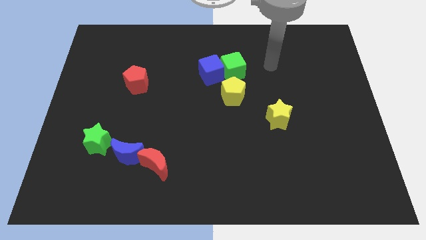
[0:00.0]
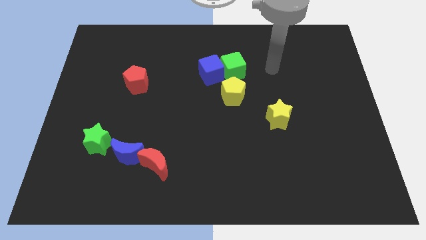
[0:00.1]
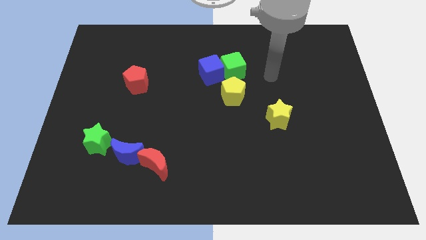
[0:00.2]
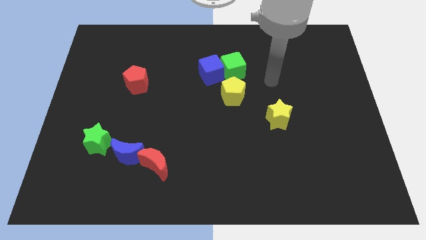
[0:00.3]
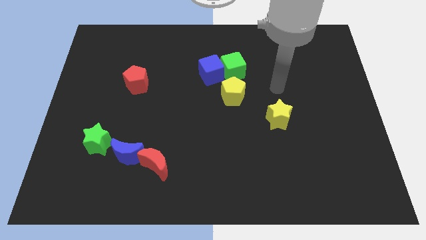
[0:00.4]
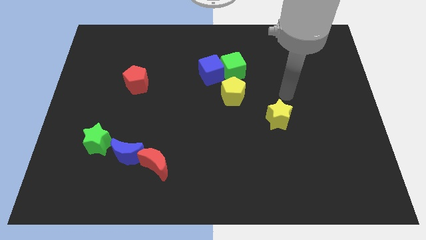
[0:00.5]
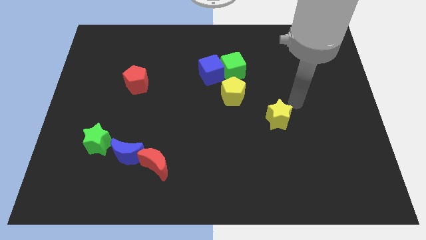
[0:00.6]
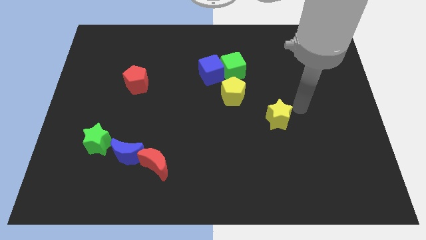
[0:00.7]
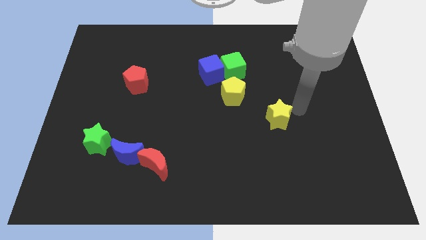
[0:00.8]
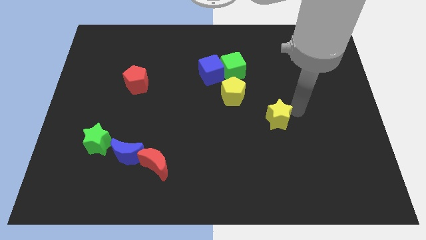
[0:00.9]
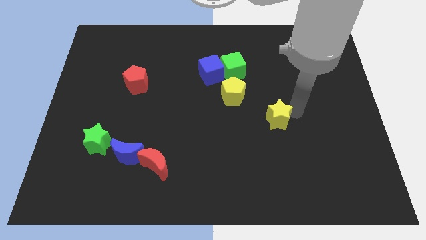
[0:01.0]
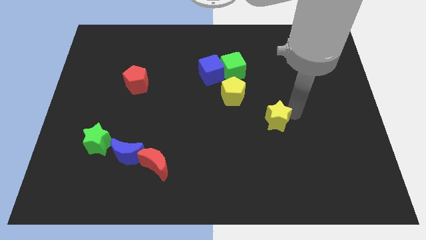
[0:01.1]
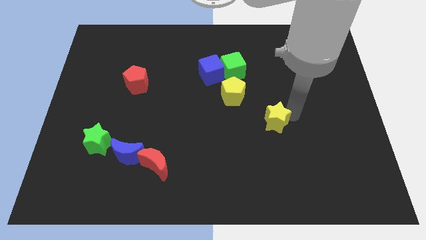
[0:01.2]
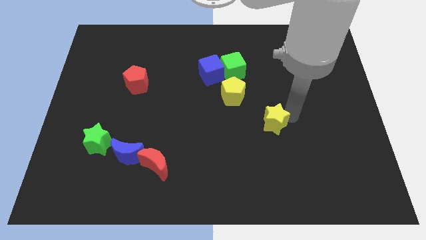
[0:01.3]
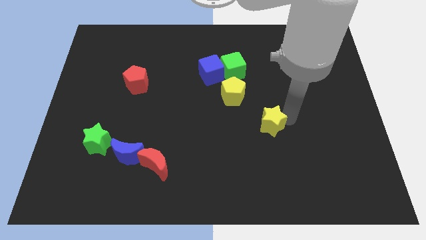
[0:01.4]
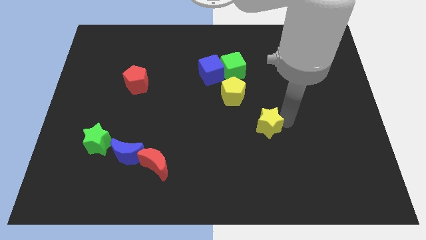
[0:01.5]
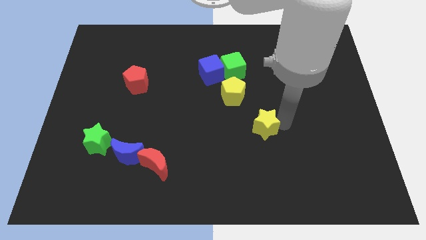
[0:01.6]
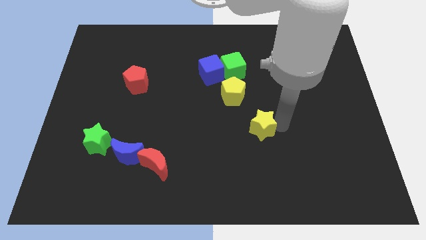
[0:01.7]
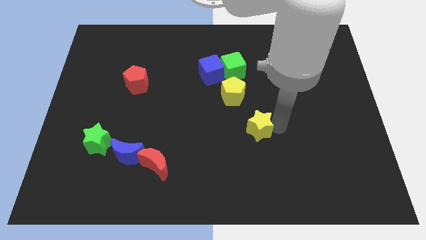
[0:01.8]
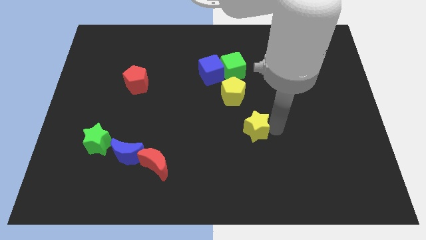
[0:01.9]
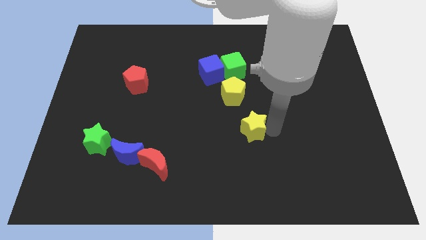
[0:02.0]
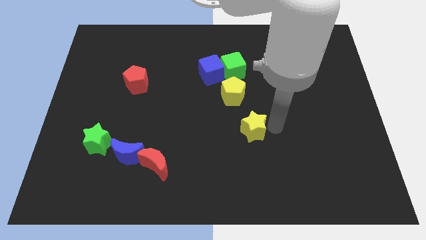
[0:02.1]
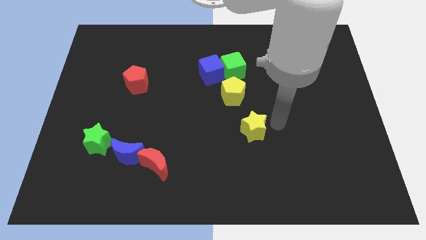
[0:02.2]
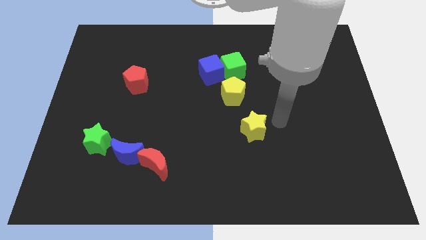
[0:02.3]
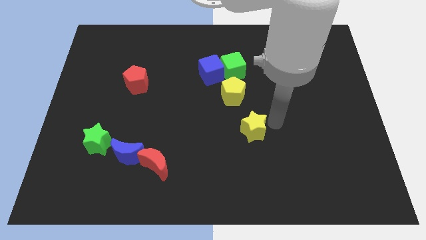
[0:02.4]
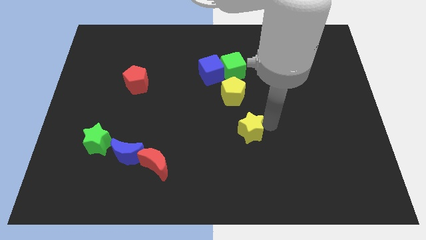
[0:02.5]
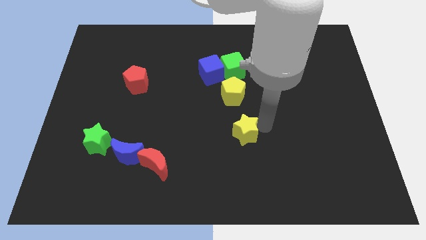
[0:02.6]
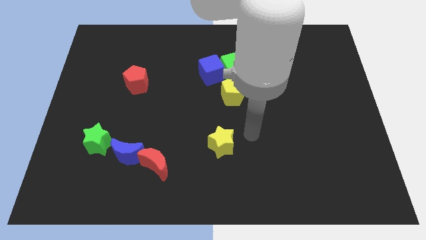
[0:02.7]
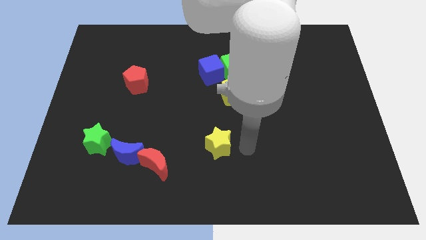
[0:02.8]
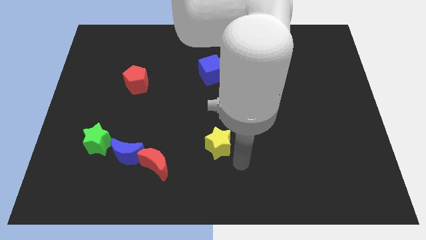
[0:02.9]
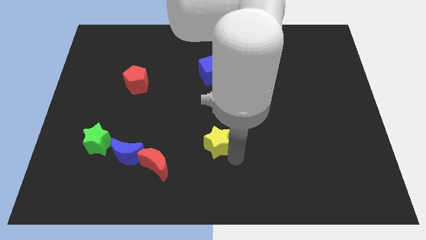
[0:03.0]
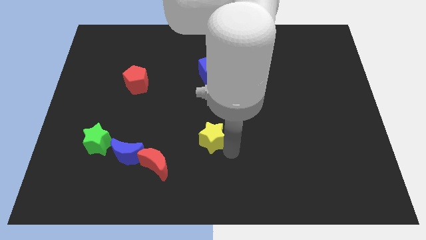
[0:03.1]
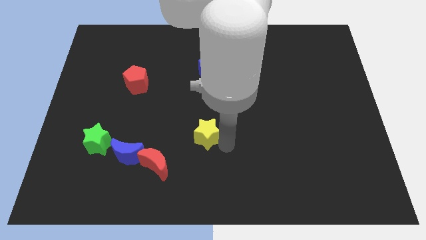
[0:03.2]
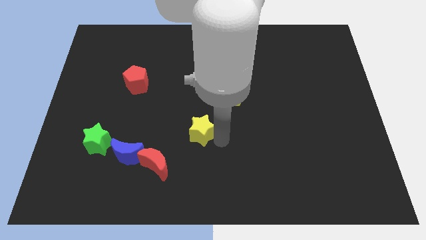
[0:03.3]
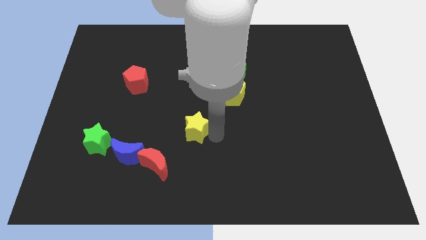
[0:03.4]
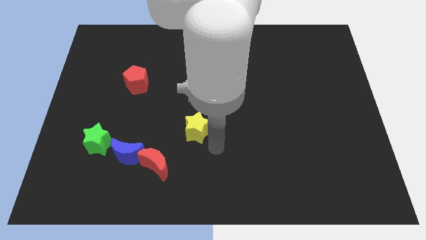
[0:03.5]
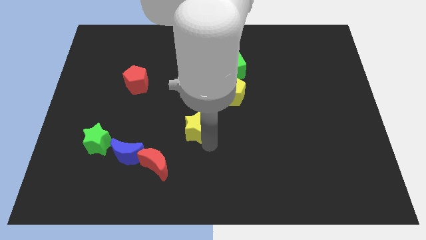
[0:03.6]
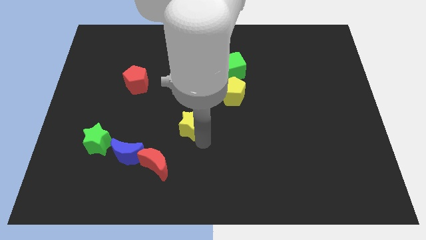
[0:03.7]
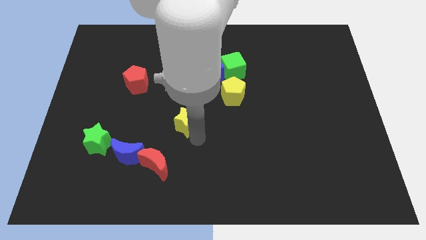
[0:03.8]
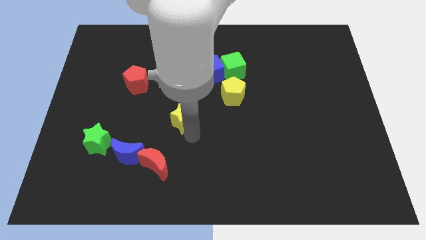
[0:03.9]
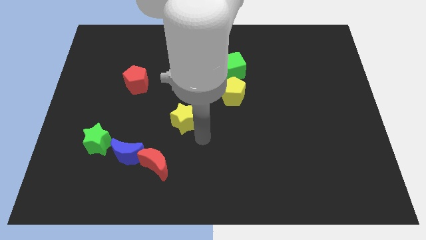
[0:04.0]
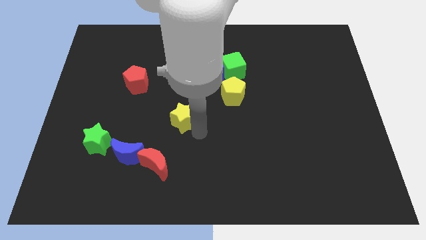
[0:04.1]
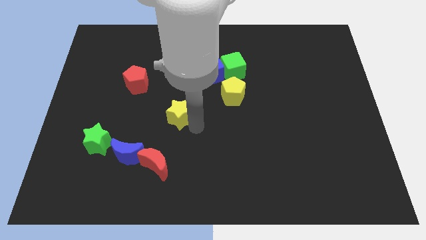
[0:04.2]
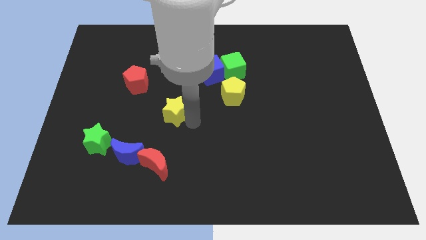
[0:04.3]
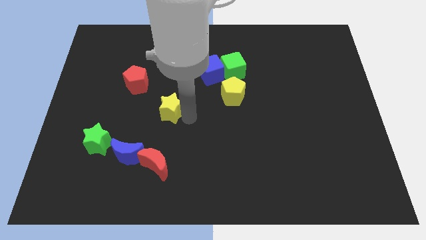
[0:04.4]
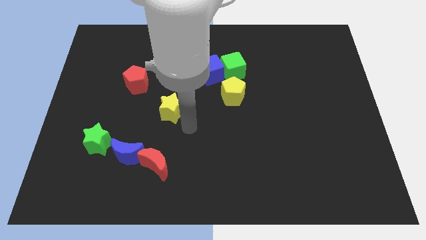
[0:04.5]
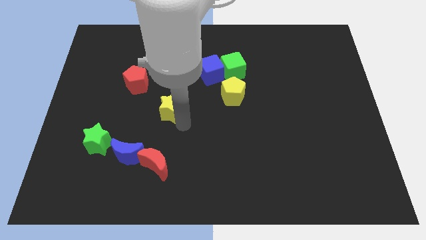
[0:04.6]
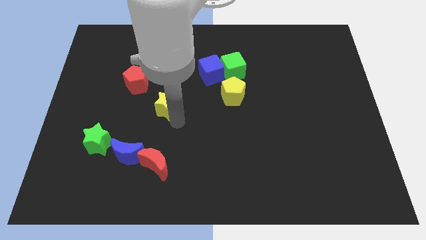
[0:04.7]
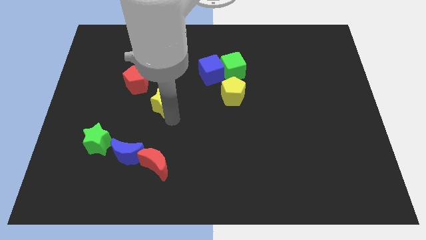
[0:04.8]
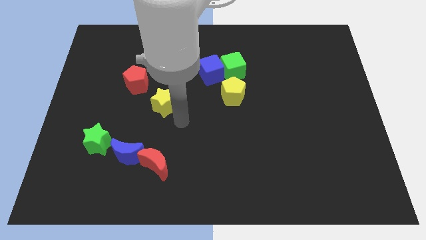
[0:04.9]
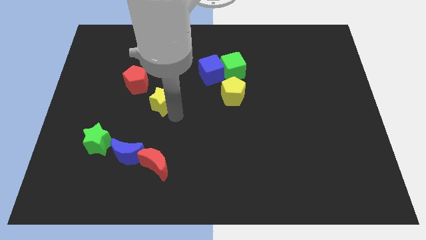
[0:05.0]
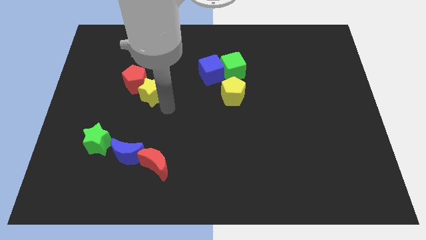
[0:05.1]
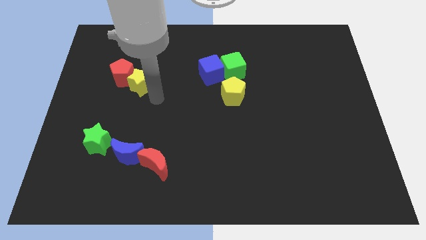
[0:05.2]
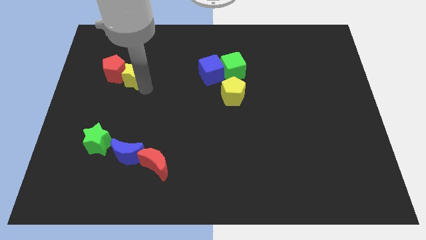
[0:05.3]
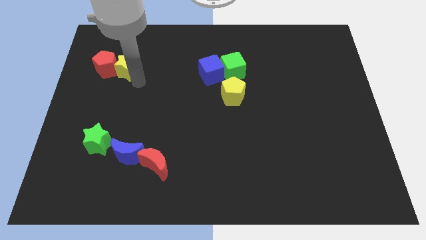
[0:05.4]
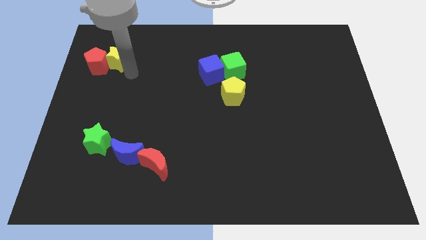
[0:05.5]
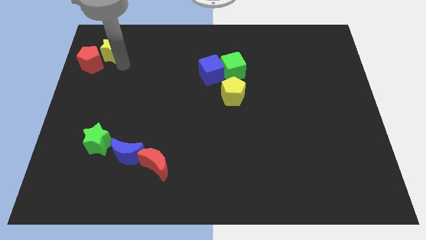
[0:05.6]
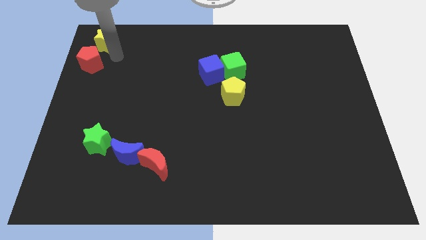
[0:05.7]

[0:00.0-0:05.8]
push the yellow star to the upper left corner

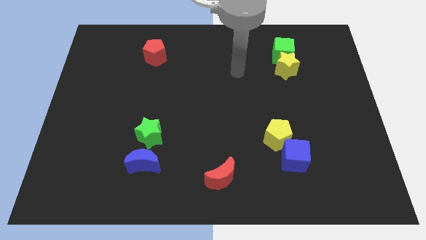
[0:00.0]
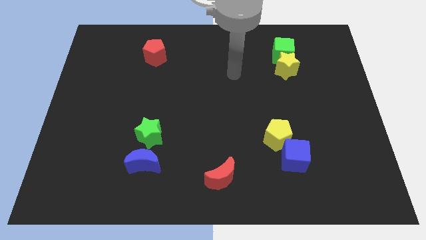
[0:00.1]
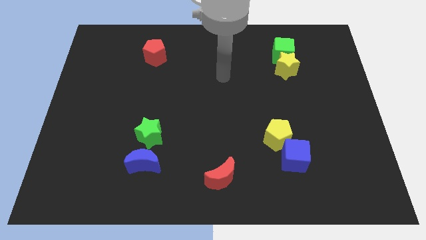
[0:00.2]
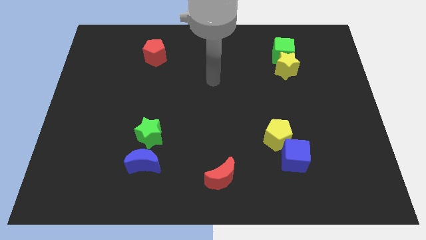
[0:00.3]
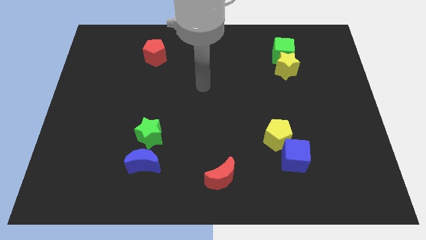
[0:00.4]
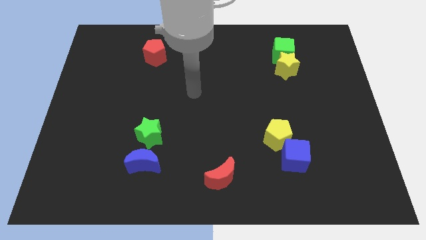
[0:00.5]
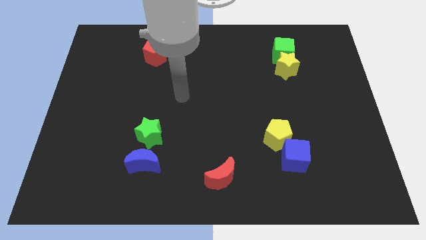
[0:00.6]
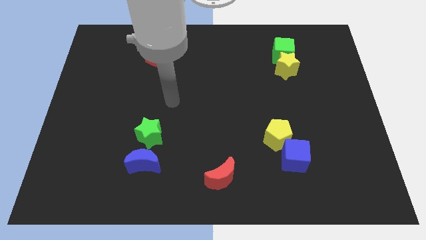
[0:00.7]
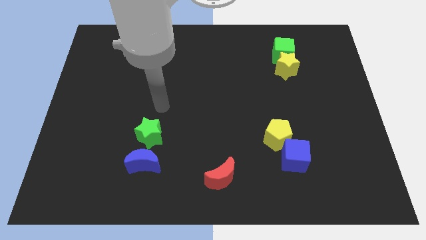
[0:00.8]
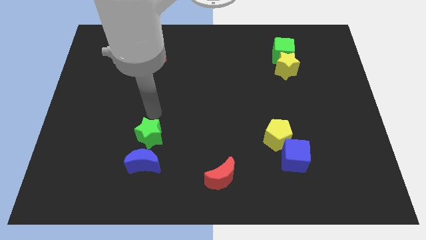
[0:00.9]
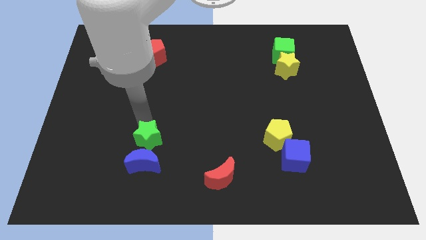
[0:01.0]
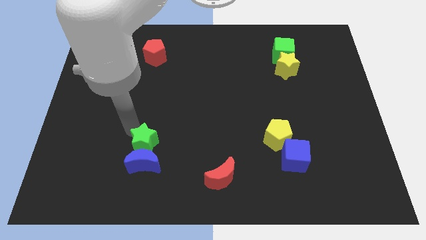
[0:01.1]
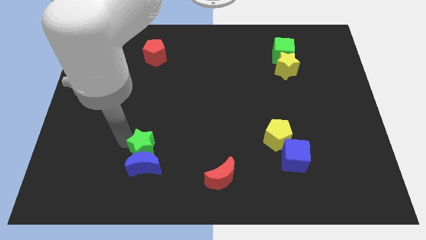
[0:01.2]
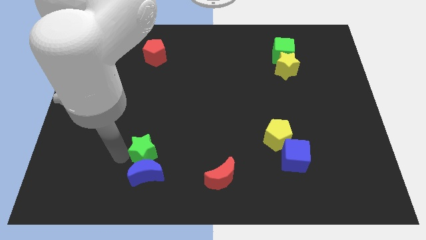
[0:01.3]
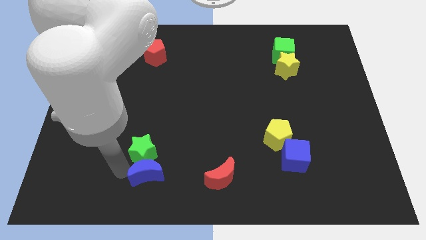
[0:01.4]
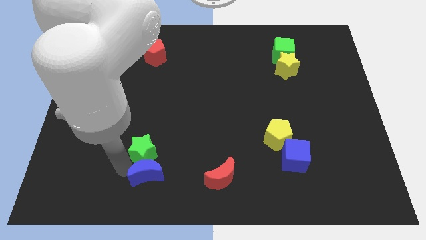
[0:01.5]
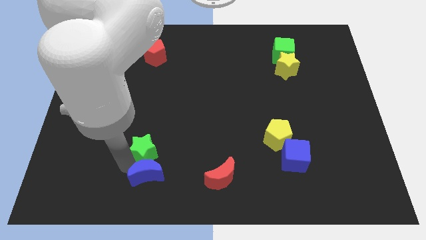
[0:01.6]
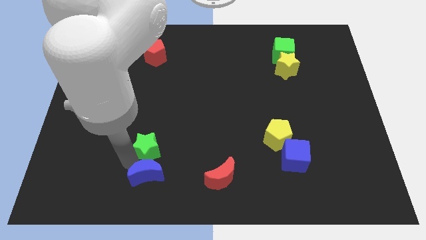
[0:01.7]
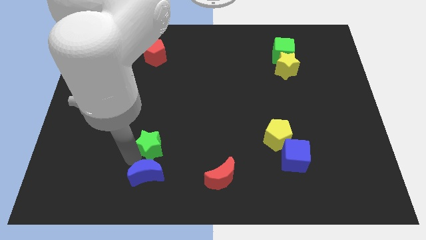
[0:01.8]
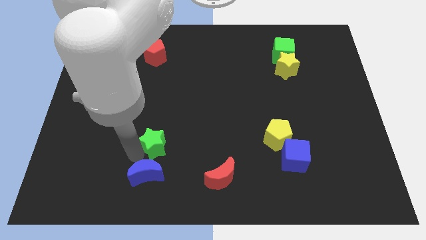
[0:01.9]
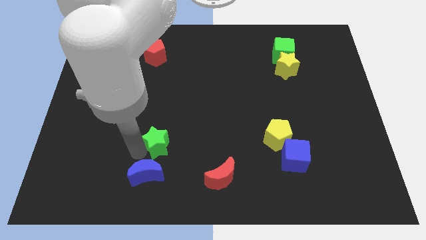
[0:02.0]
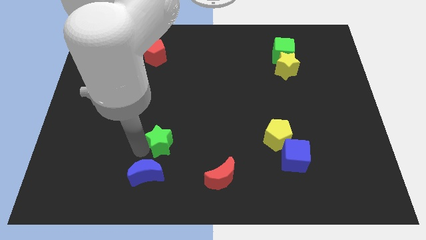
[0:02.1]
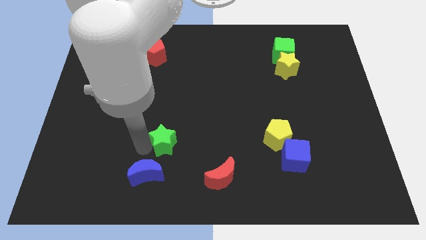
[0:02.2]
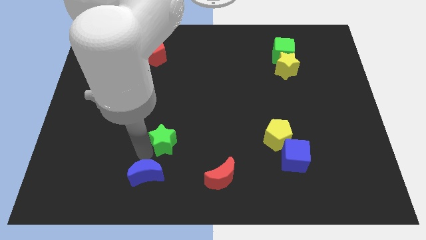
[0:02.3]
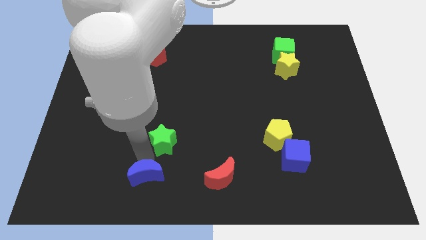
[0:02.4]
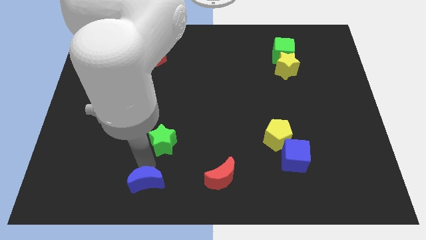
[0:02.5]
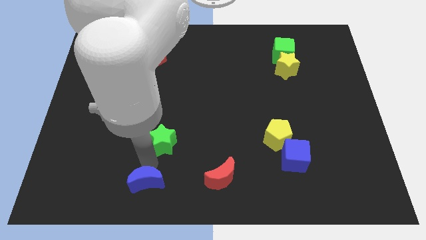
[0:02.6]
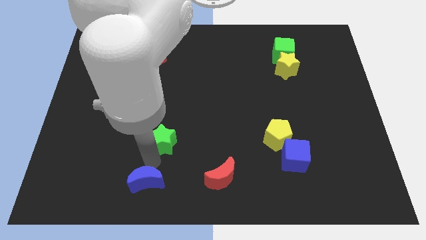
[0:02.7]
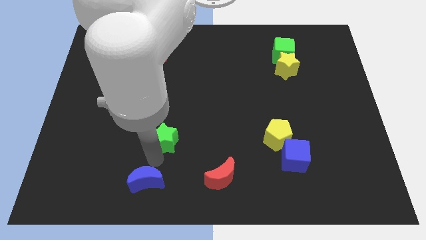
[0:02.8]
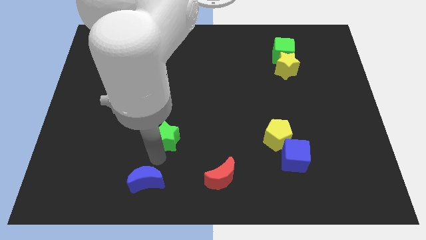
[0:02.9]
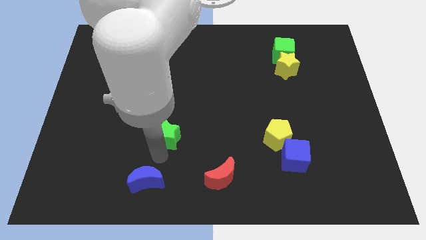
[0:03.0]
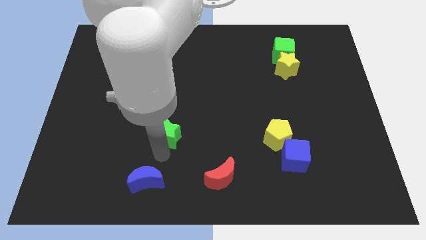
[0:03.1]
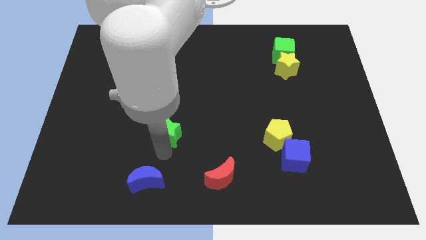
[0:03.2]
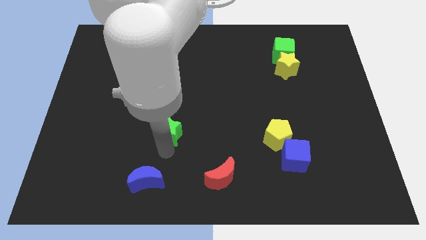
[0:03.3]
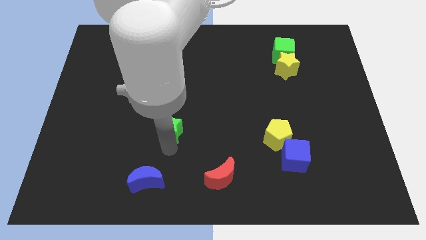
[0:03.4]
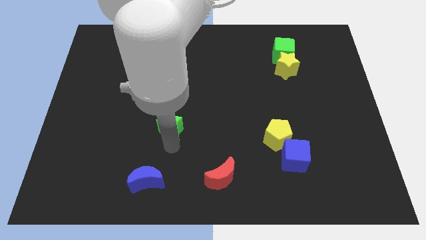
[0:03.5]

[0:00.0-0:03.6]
move the green star to the middle
